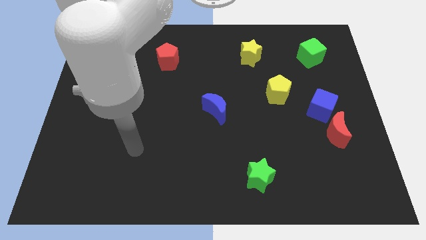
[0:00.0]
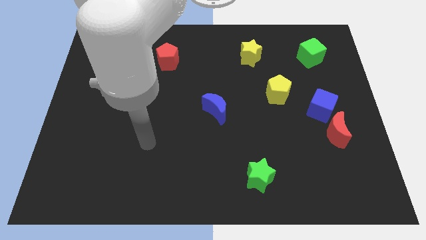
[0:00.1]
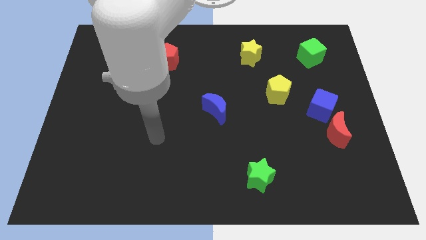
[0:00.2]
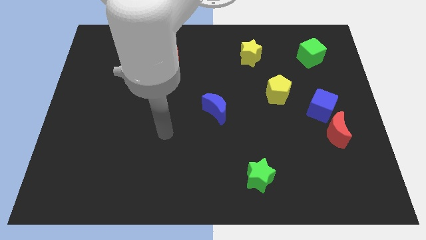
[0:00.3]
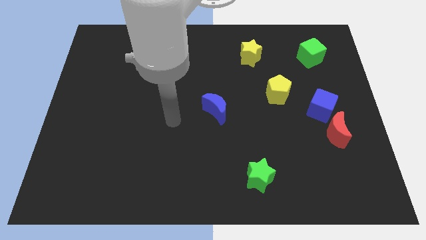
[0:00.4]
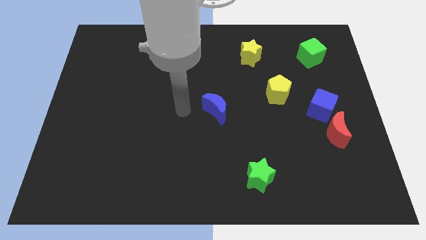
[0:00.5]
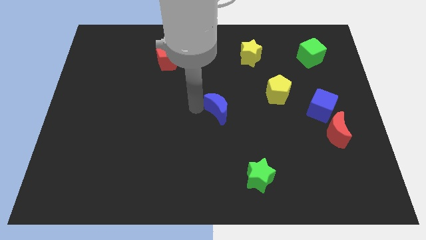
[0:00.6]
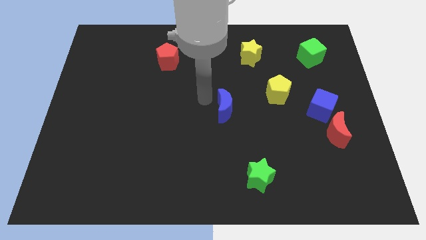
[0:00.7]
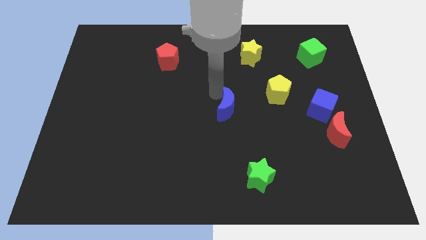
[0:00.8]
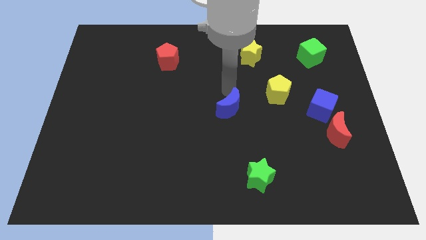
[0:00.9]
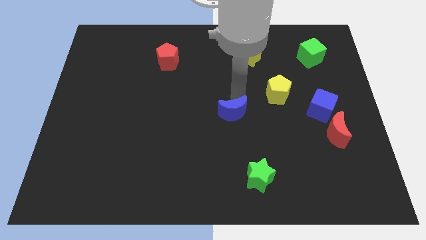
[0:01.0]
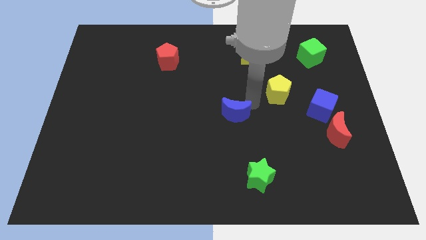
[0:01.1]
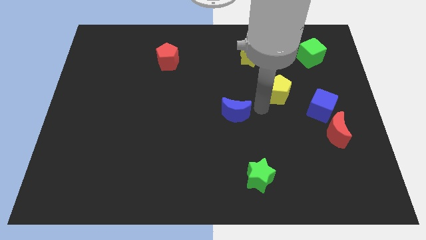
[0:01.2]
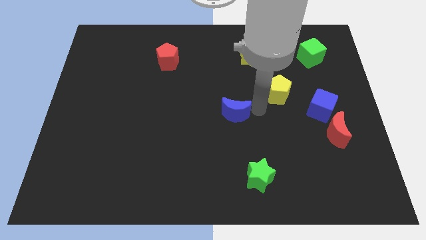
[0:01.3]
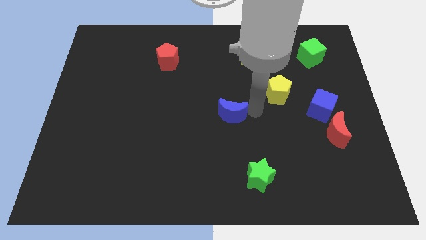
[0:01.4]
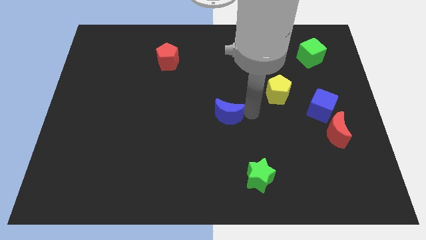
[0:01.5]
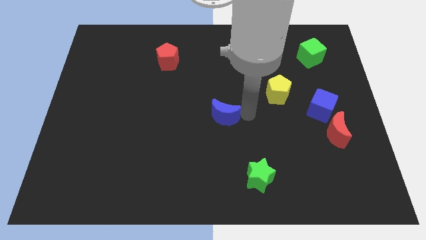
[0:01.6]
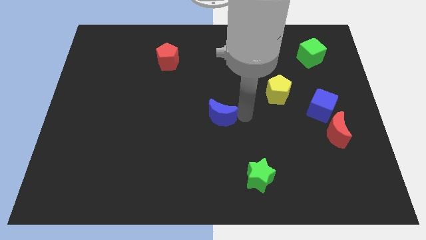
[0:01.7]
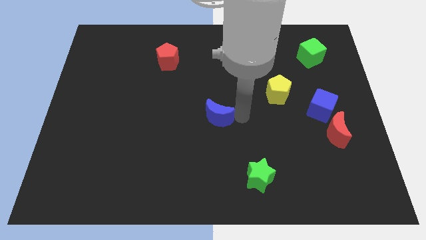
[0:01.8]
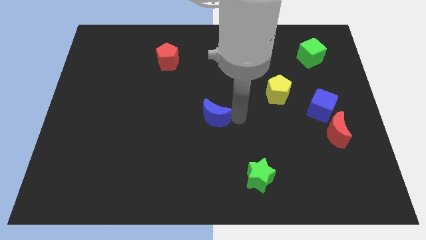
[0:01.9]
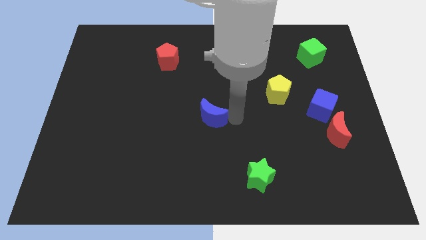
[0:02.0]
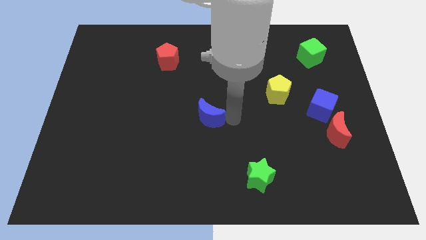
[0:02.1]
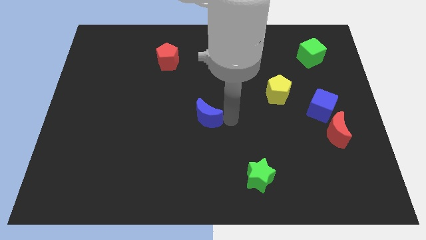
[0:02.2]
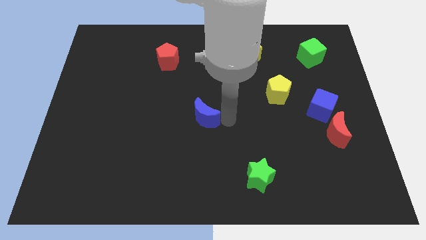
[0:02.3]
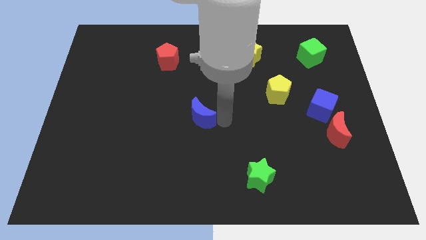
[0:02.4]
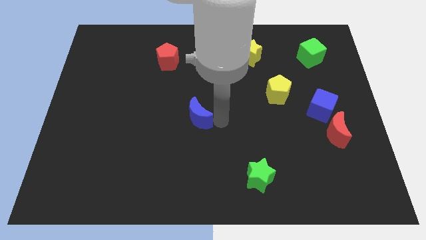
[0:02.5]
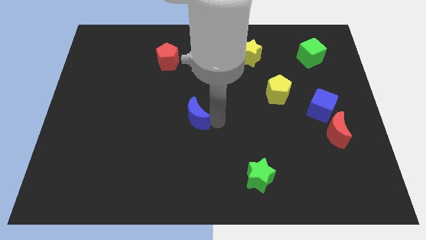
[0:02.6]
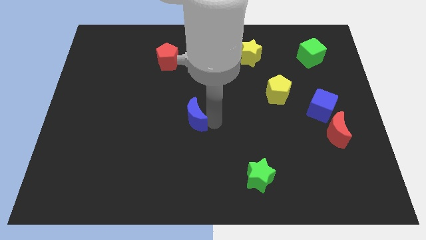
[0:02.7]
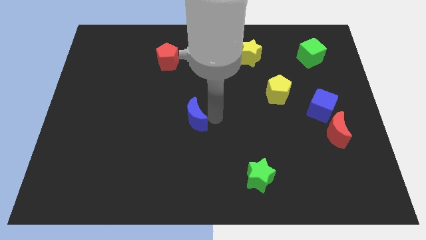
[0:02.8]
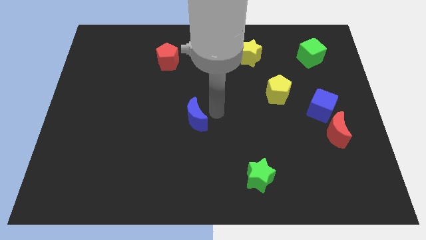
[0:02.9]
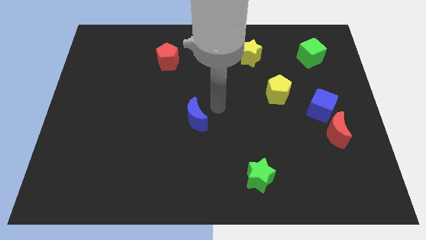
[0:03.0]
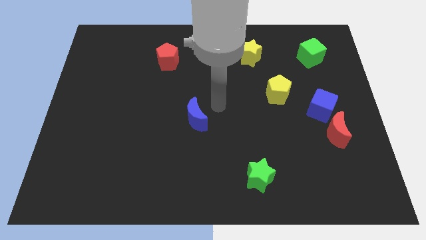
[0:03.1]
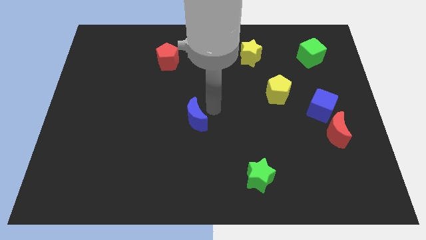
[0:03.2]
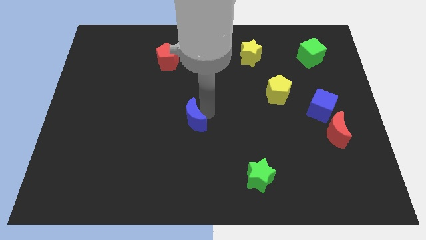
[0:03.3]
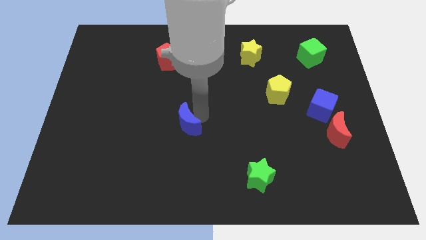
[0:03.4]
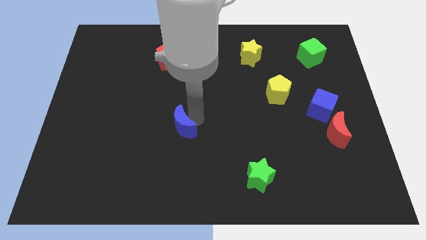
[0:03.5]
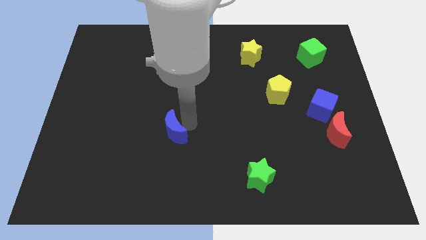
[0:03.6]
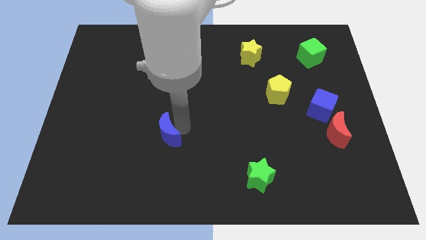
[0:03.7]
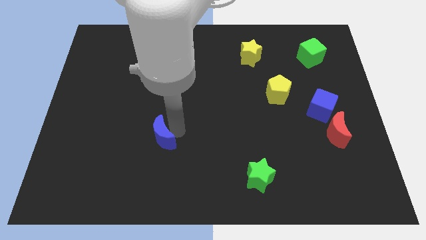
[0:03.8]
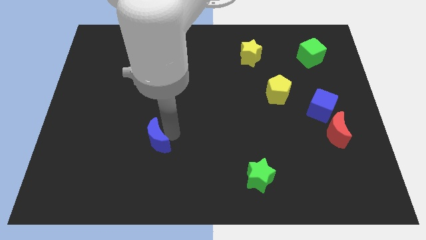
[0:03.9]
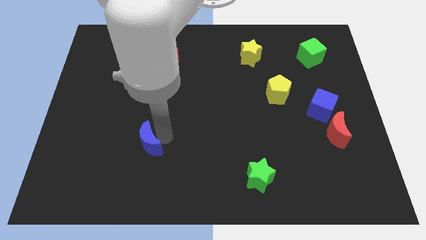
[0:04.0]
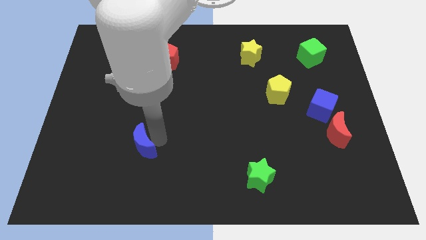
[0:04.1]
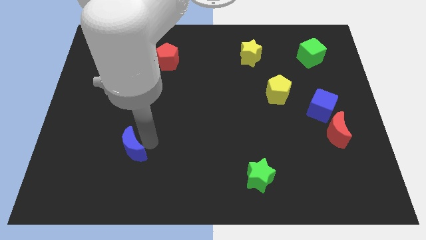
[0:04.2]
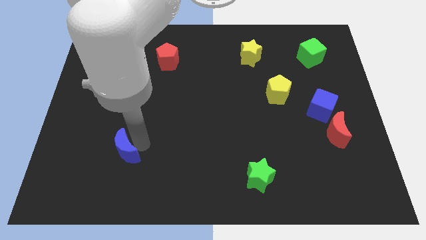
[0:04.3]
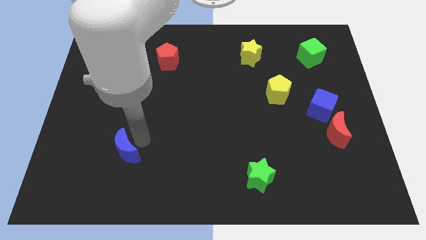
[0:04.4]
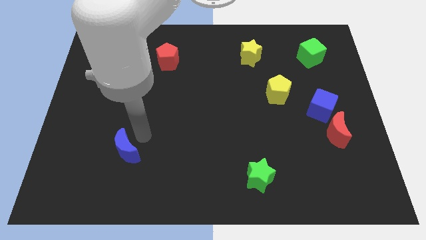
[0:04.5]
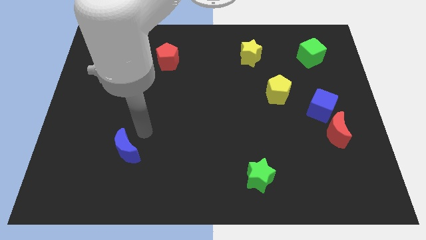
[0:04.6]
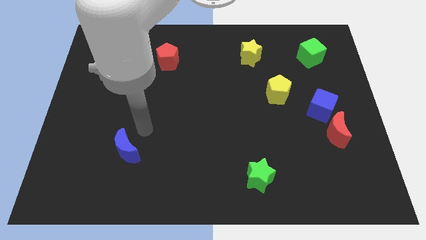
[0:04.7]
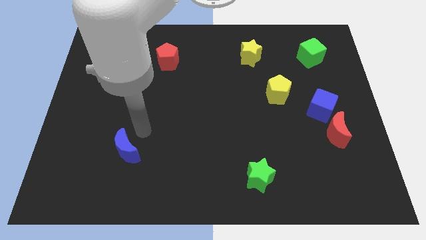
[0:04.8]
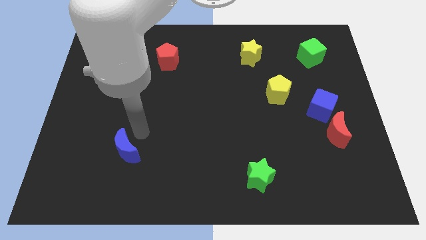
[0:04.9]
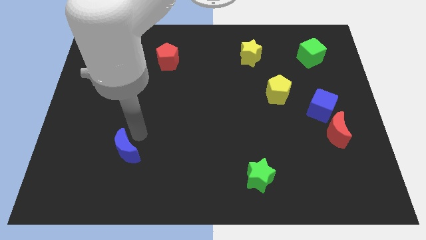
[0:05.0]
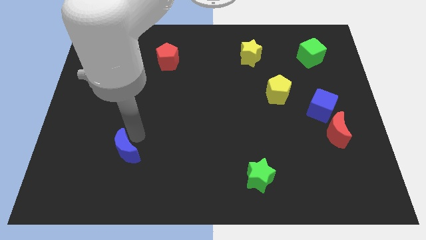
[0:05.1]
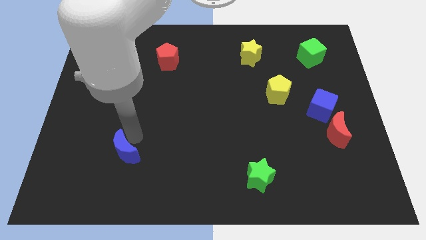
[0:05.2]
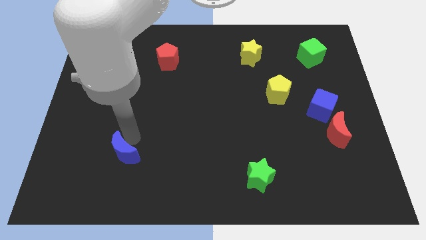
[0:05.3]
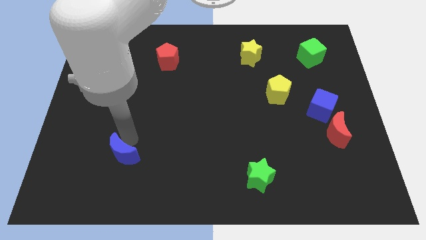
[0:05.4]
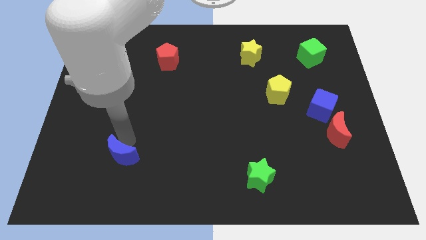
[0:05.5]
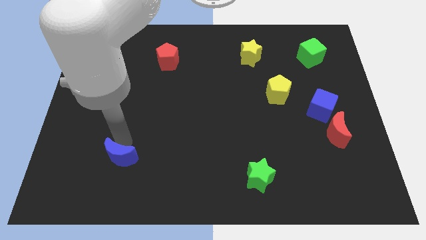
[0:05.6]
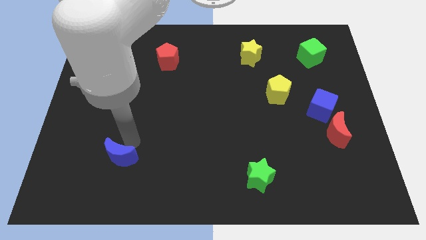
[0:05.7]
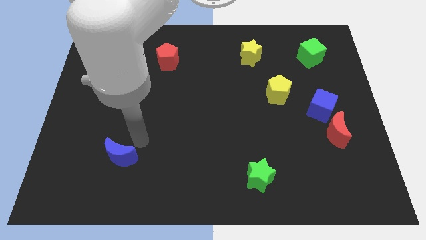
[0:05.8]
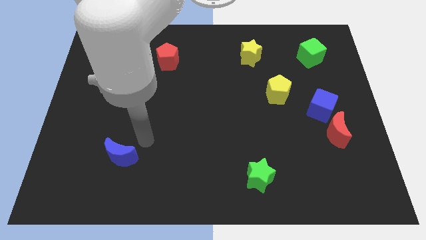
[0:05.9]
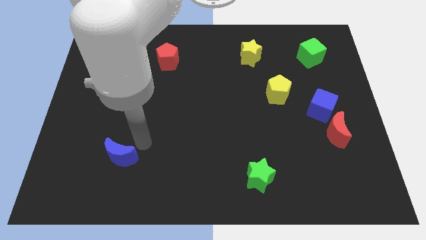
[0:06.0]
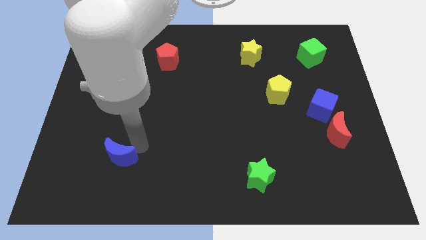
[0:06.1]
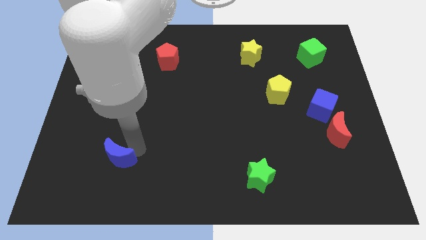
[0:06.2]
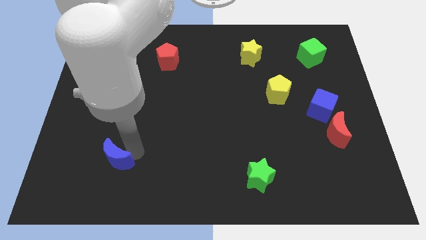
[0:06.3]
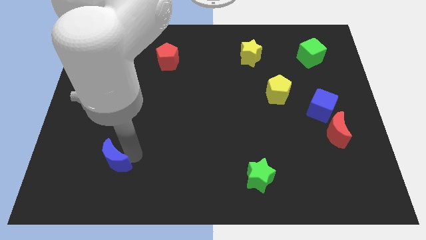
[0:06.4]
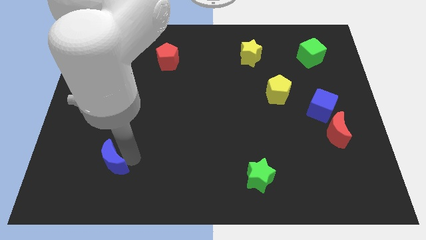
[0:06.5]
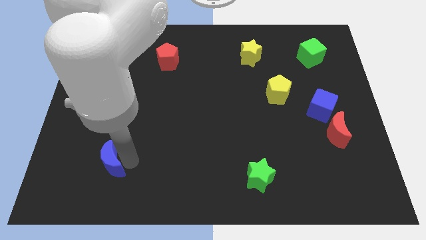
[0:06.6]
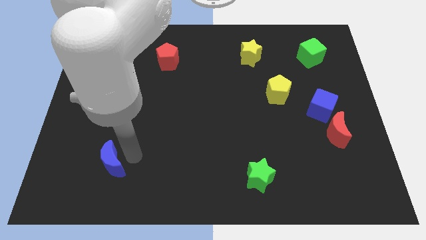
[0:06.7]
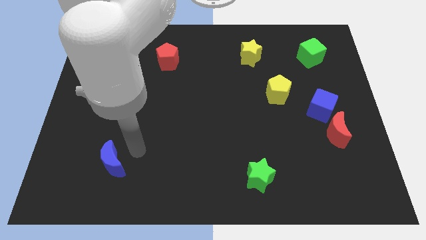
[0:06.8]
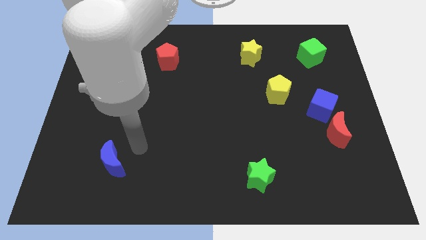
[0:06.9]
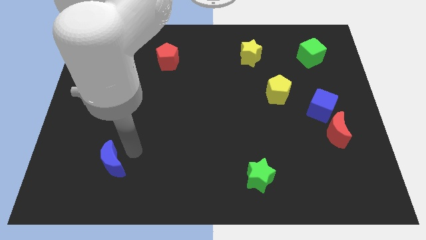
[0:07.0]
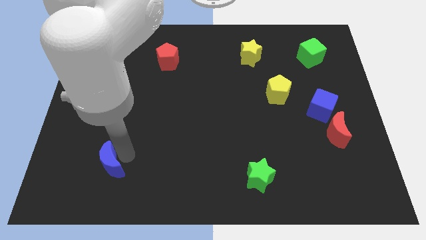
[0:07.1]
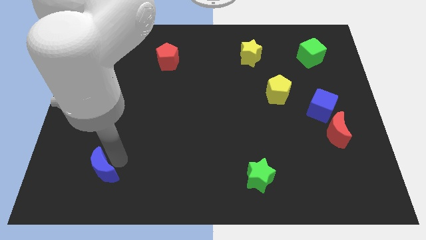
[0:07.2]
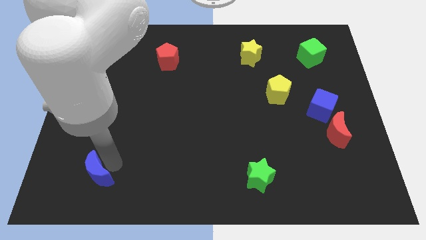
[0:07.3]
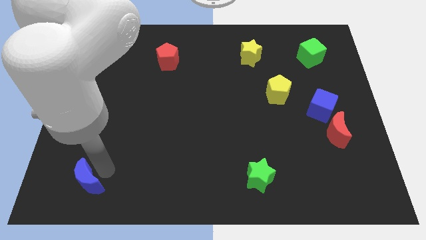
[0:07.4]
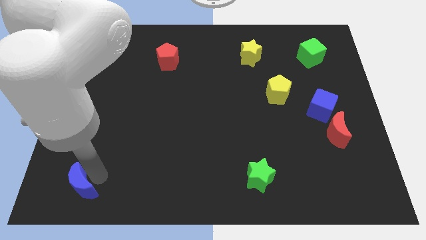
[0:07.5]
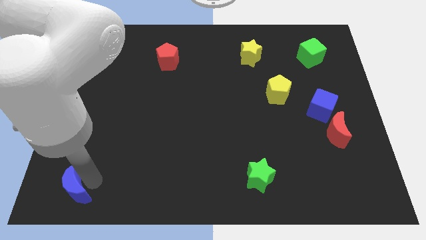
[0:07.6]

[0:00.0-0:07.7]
put the blue moon to the bottom left corner
